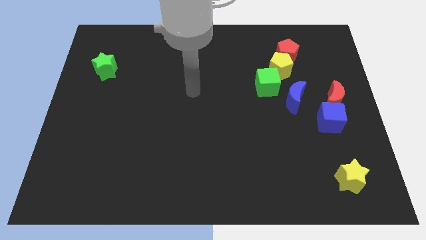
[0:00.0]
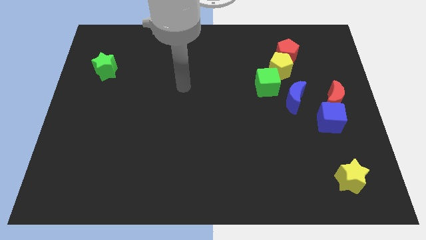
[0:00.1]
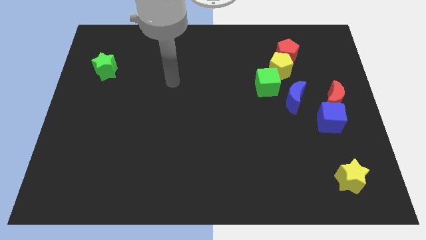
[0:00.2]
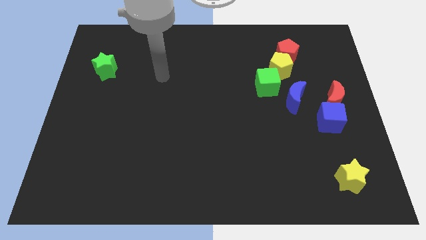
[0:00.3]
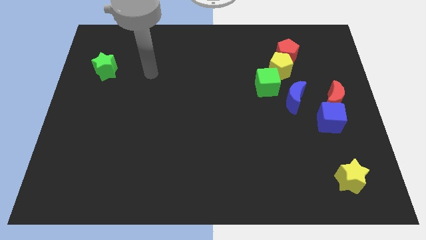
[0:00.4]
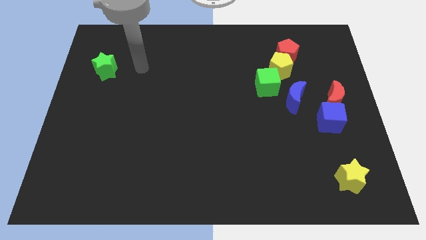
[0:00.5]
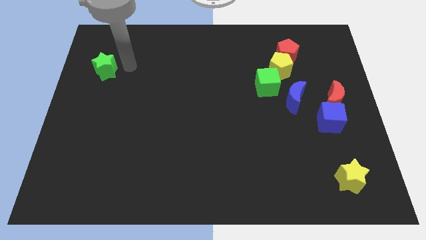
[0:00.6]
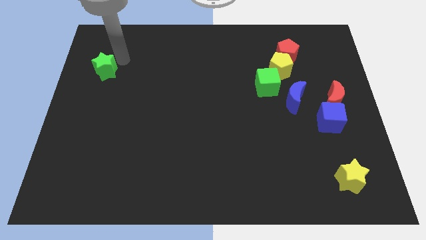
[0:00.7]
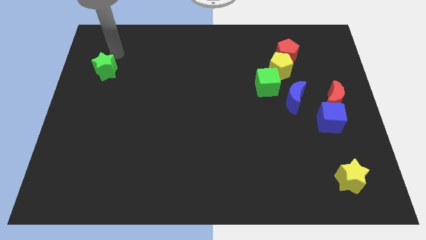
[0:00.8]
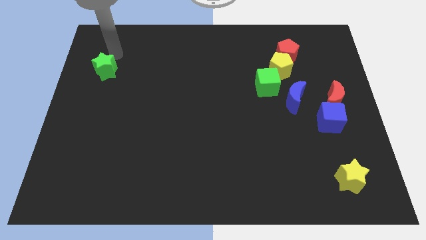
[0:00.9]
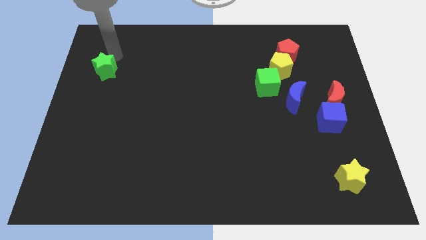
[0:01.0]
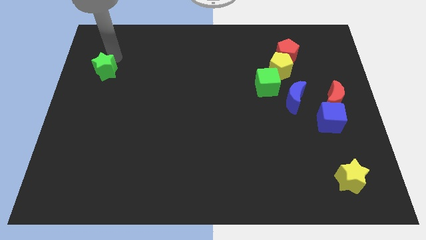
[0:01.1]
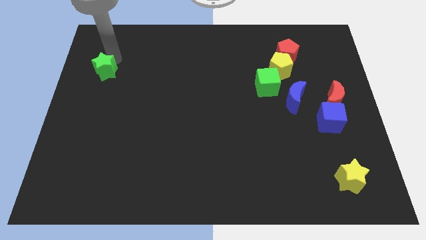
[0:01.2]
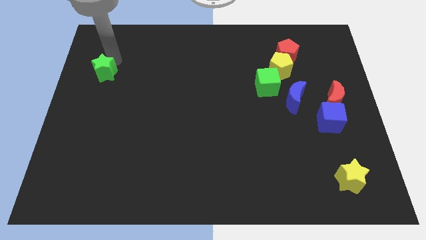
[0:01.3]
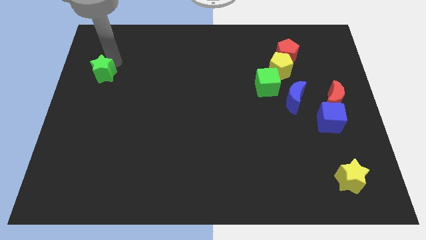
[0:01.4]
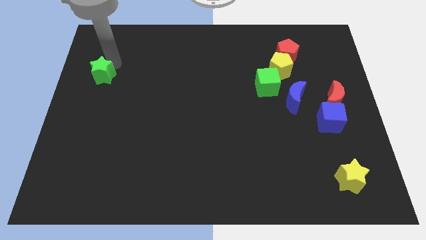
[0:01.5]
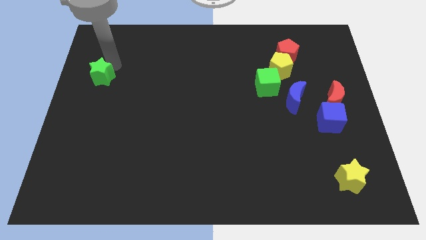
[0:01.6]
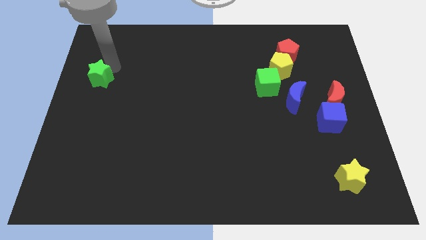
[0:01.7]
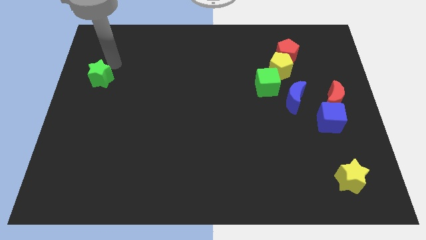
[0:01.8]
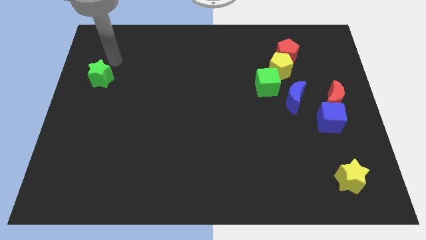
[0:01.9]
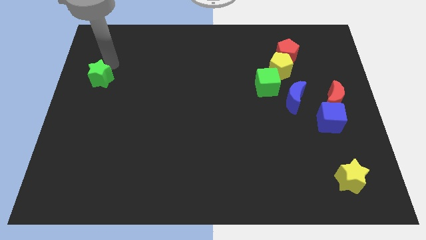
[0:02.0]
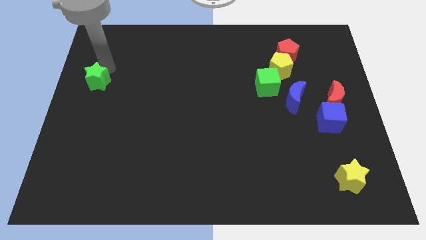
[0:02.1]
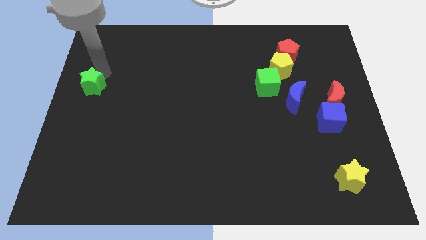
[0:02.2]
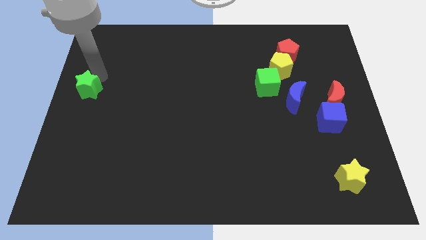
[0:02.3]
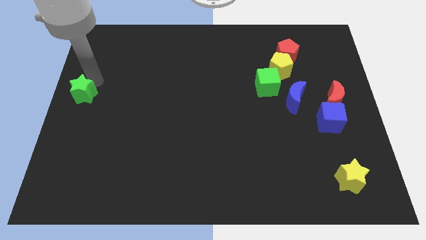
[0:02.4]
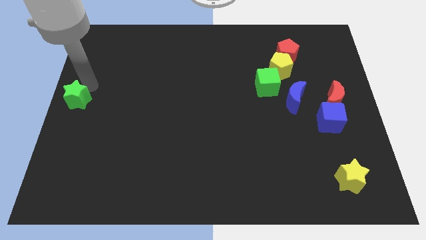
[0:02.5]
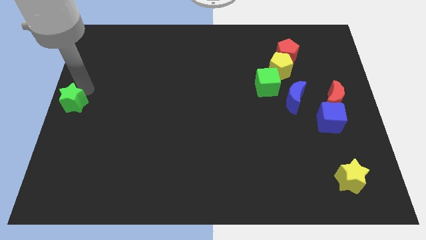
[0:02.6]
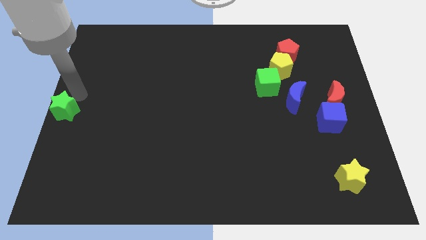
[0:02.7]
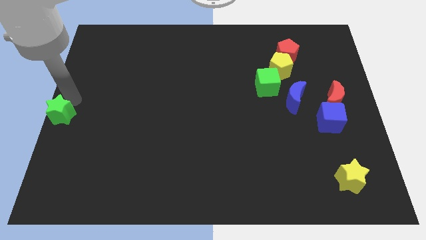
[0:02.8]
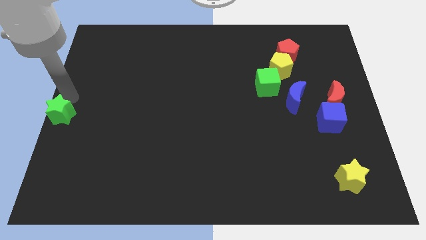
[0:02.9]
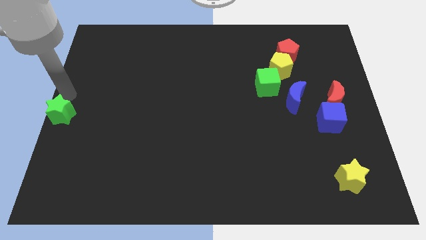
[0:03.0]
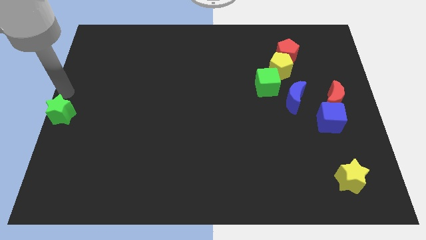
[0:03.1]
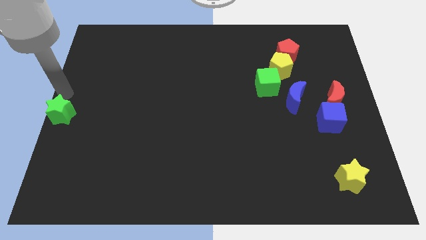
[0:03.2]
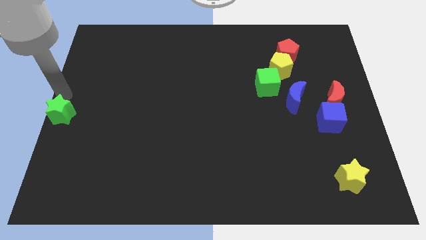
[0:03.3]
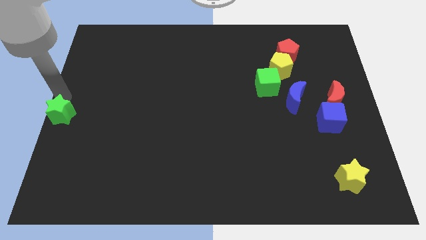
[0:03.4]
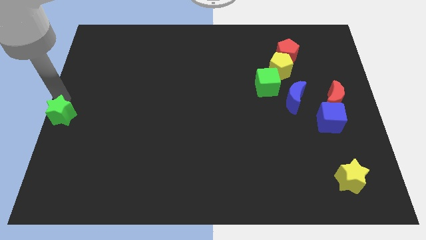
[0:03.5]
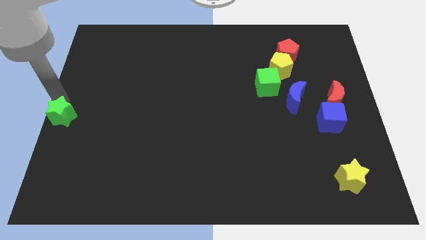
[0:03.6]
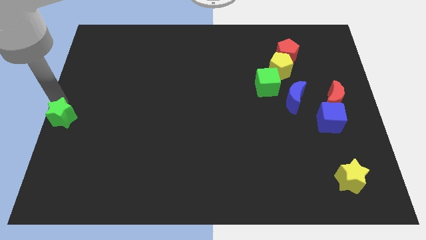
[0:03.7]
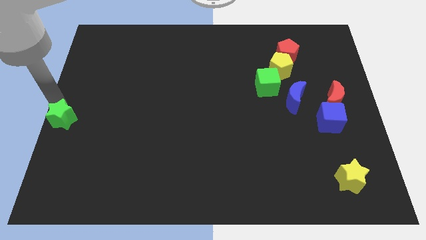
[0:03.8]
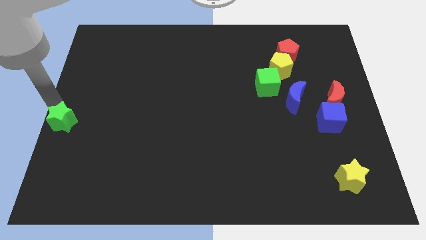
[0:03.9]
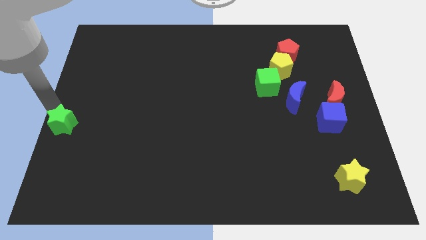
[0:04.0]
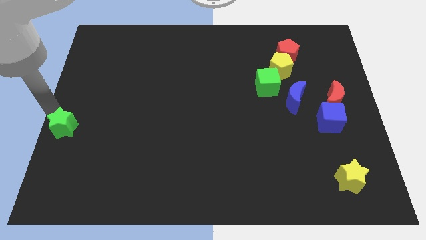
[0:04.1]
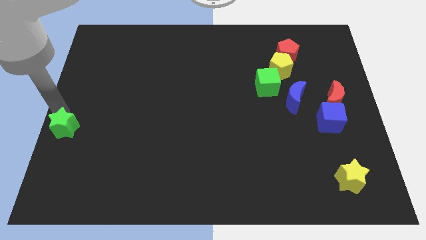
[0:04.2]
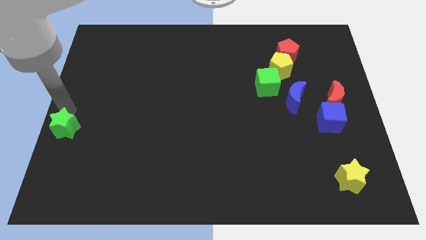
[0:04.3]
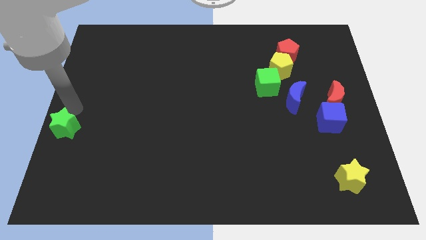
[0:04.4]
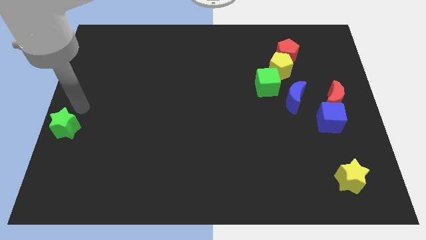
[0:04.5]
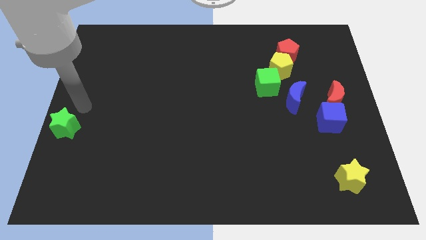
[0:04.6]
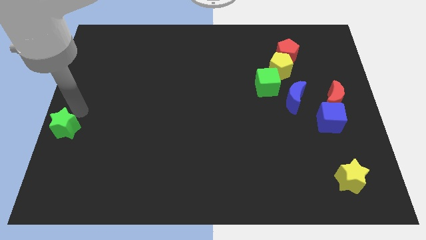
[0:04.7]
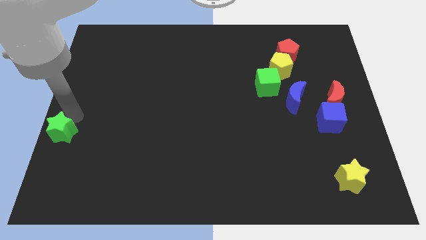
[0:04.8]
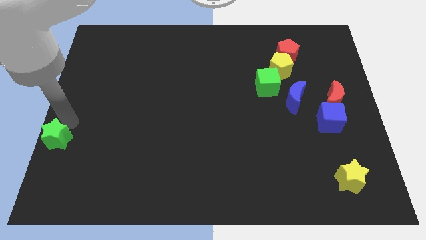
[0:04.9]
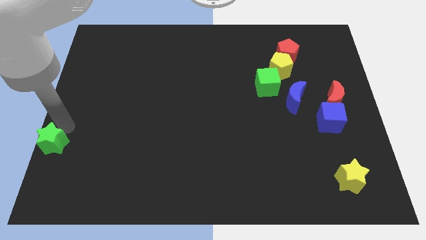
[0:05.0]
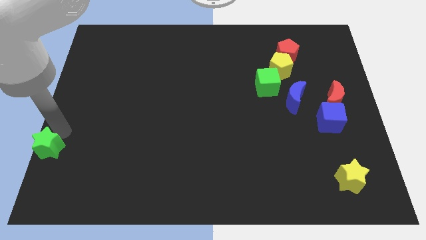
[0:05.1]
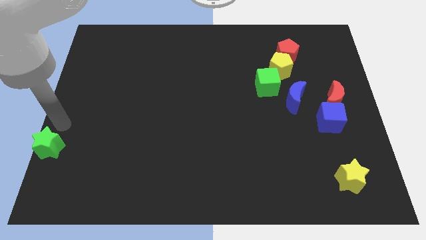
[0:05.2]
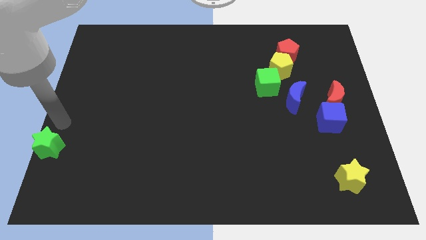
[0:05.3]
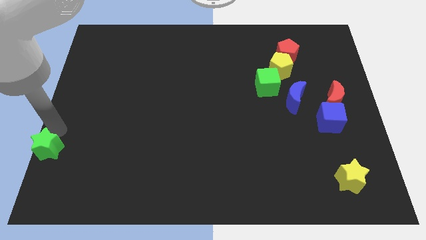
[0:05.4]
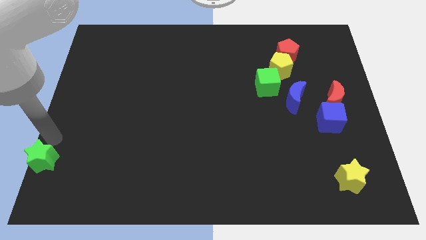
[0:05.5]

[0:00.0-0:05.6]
push the green star to the bottom left corner

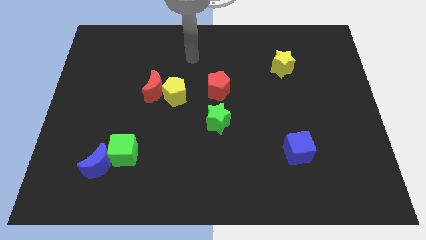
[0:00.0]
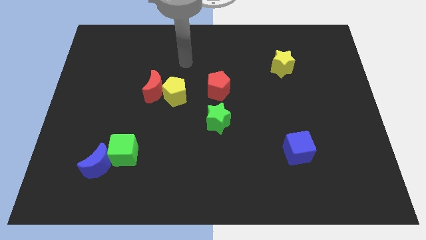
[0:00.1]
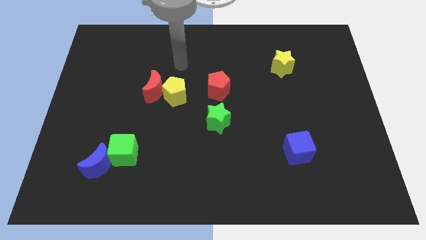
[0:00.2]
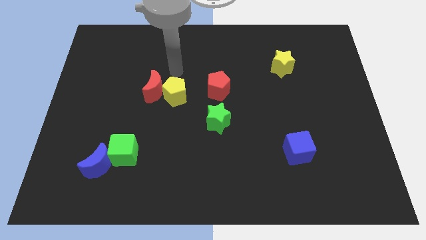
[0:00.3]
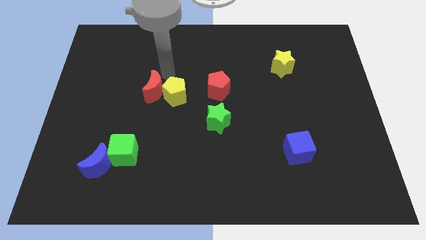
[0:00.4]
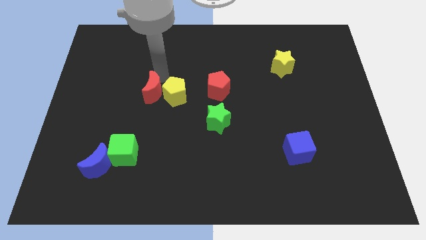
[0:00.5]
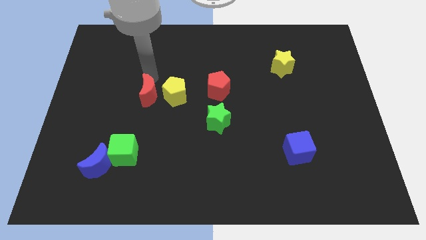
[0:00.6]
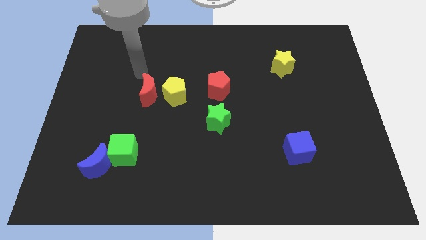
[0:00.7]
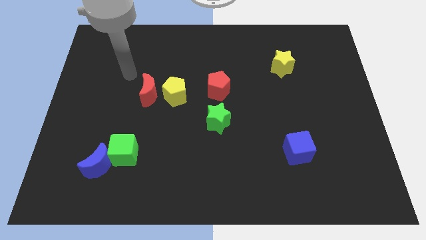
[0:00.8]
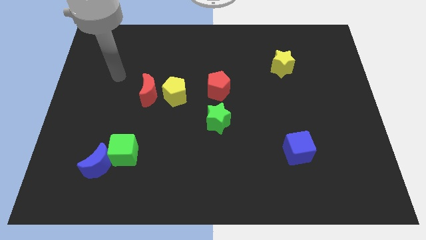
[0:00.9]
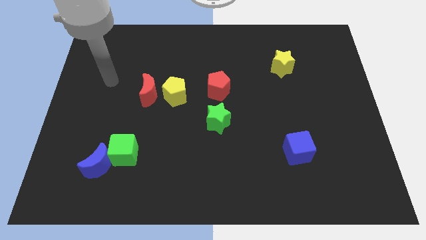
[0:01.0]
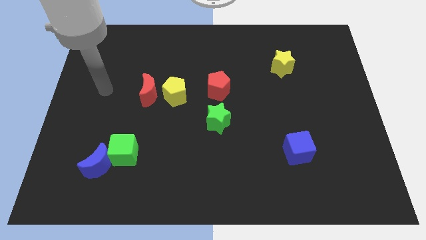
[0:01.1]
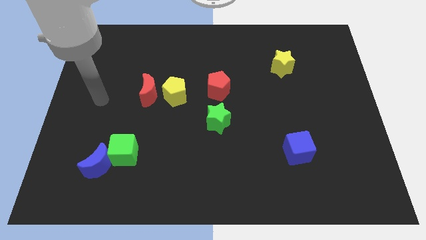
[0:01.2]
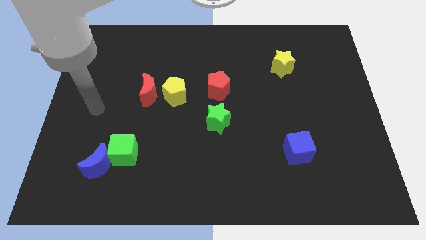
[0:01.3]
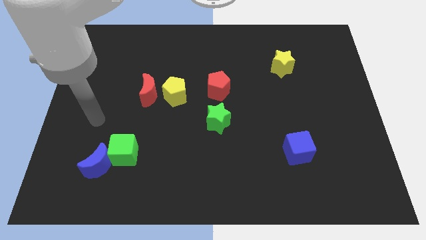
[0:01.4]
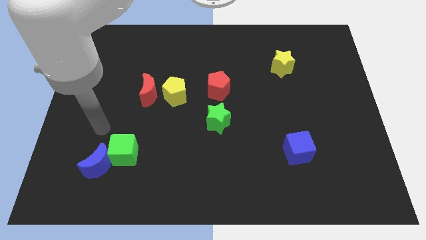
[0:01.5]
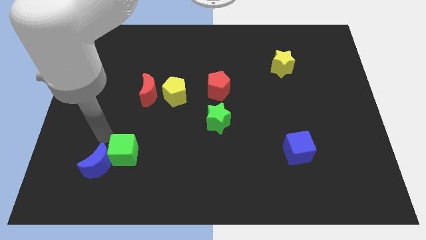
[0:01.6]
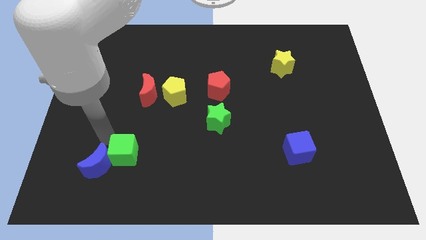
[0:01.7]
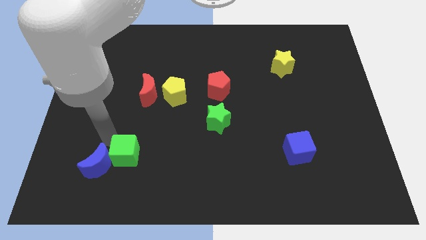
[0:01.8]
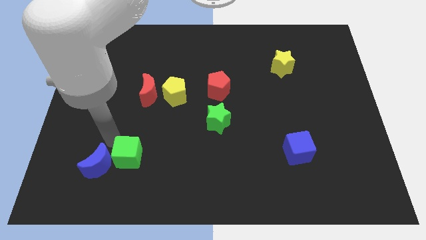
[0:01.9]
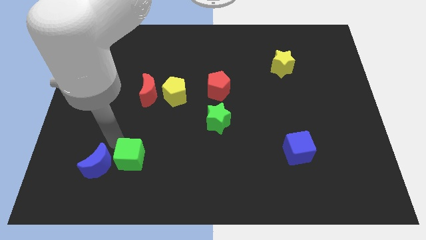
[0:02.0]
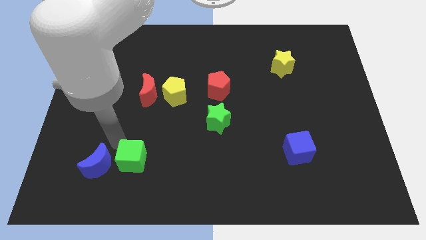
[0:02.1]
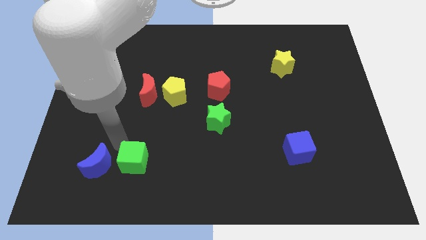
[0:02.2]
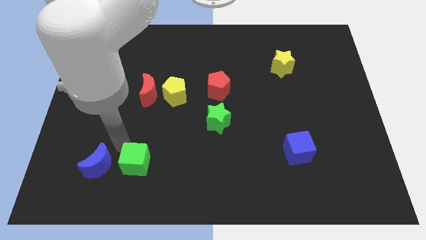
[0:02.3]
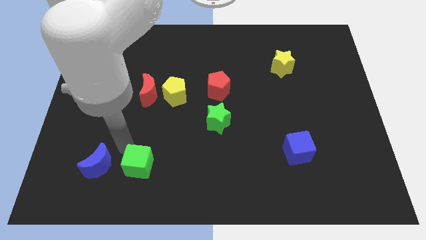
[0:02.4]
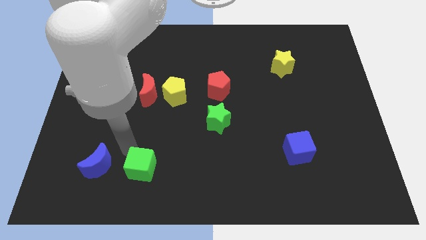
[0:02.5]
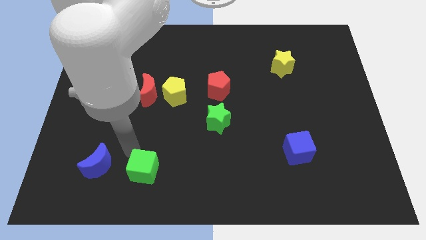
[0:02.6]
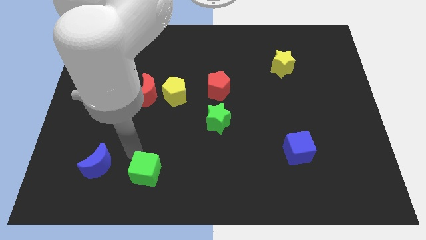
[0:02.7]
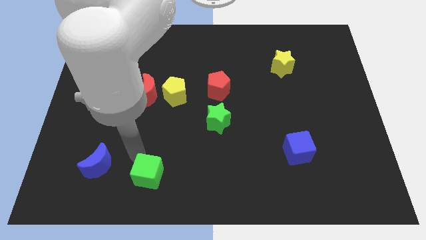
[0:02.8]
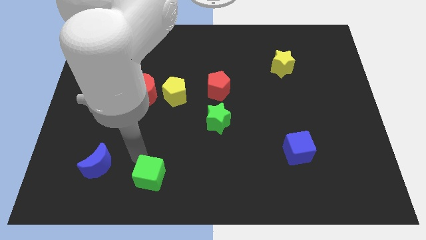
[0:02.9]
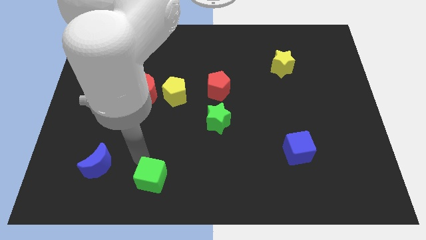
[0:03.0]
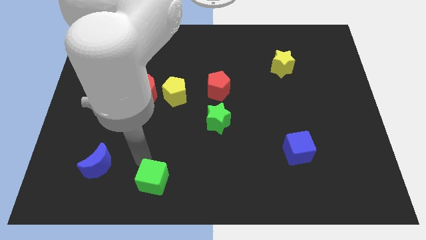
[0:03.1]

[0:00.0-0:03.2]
slide the green cube to the bottom side
